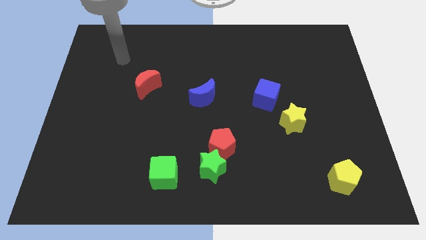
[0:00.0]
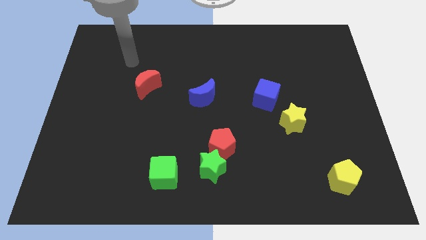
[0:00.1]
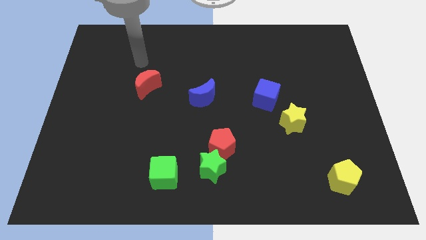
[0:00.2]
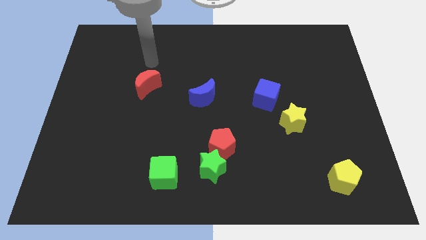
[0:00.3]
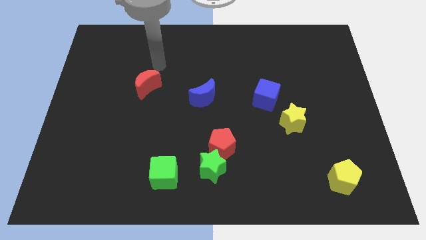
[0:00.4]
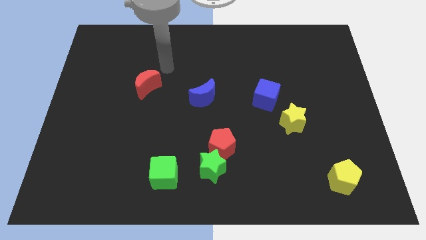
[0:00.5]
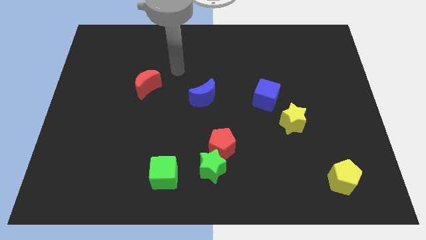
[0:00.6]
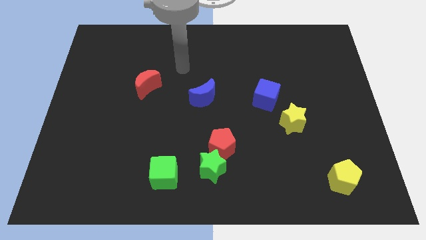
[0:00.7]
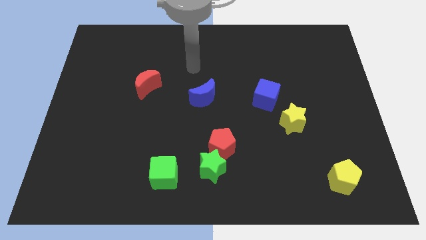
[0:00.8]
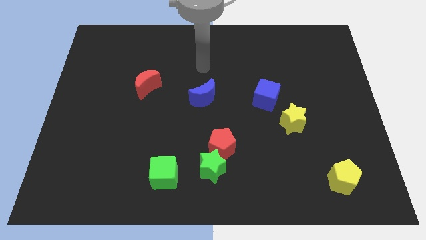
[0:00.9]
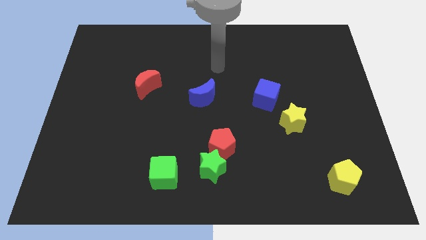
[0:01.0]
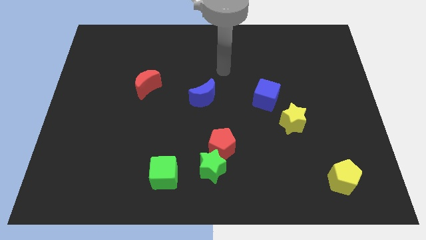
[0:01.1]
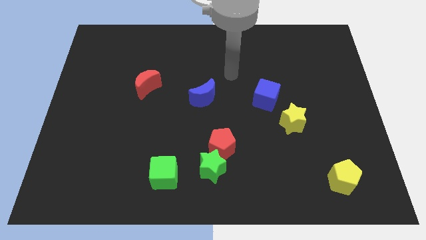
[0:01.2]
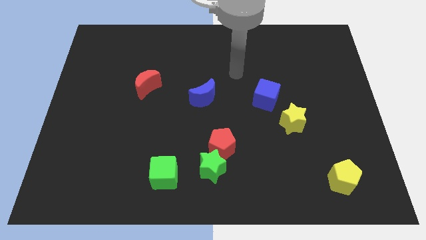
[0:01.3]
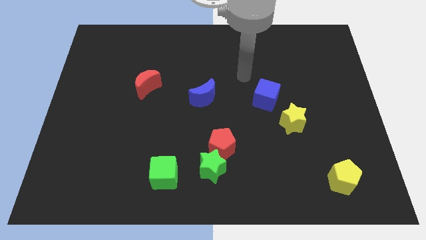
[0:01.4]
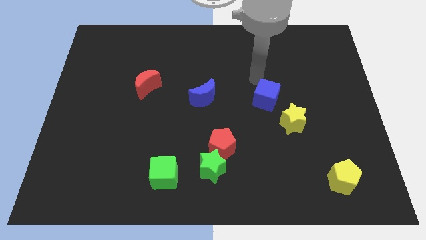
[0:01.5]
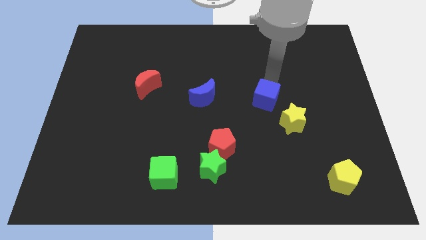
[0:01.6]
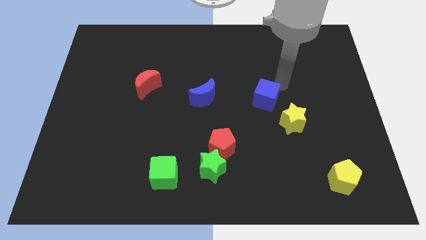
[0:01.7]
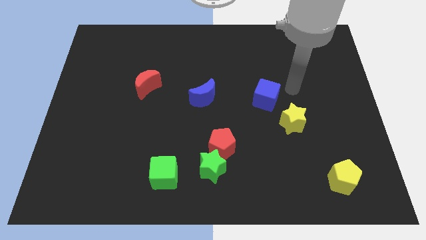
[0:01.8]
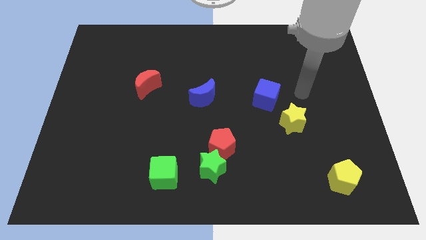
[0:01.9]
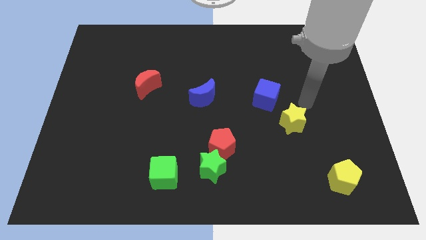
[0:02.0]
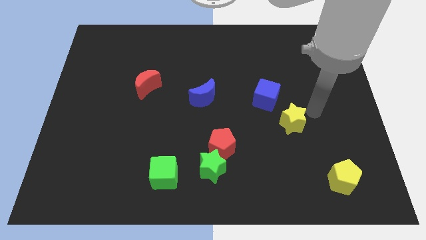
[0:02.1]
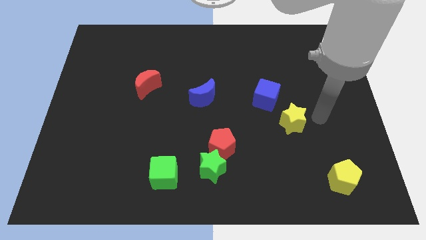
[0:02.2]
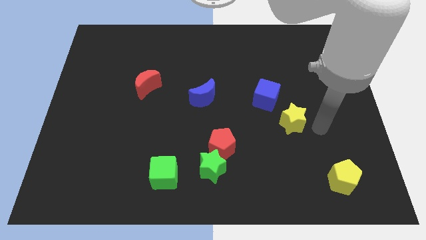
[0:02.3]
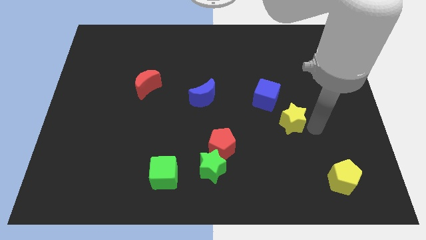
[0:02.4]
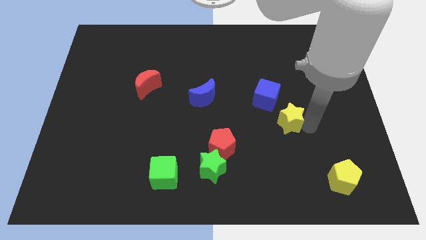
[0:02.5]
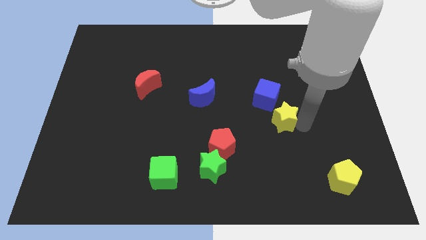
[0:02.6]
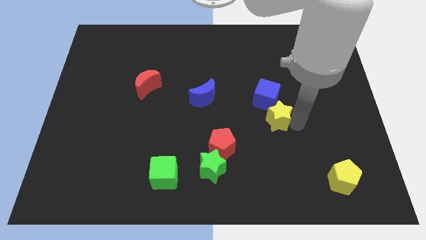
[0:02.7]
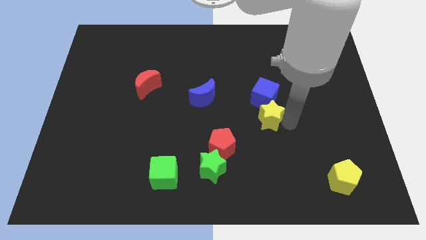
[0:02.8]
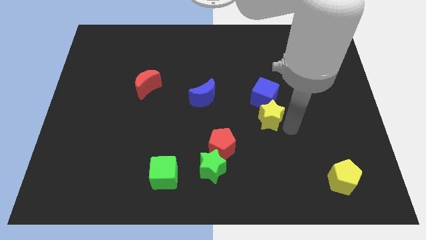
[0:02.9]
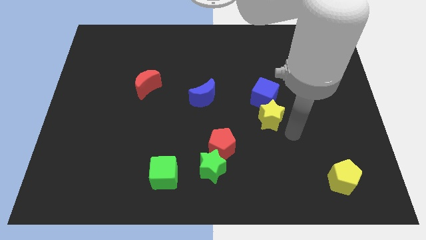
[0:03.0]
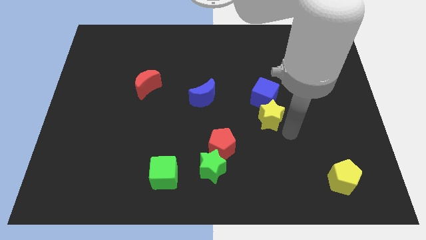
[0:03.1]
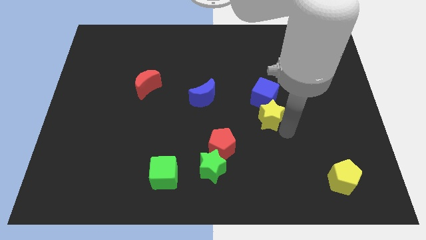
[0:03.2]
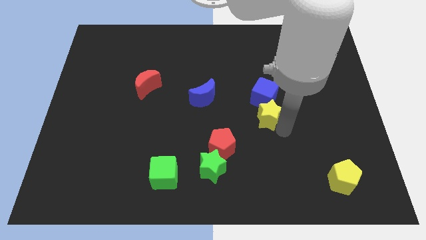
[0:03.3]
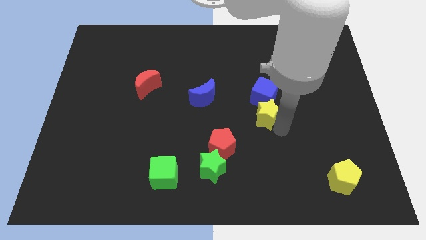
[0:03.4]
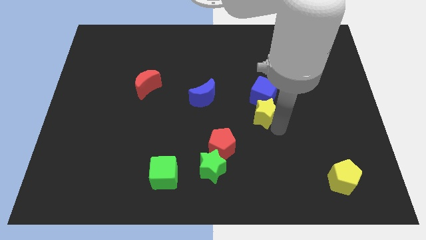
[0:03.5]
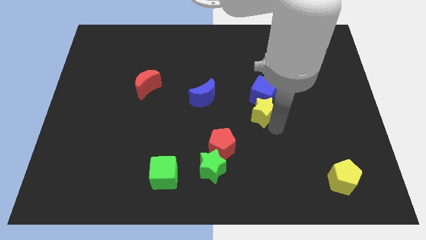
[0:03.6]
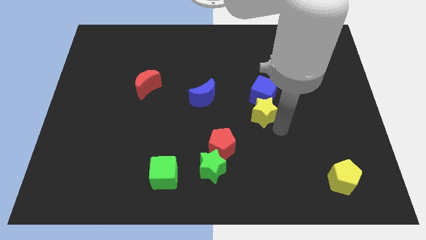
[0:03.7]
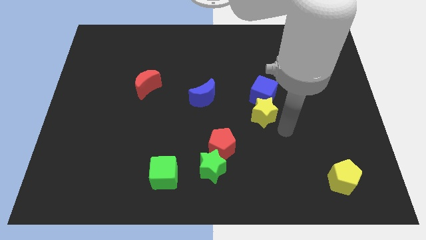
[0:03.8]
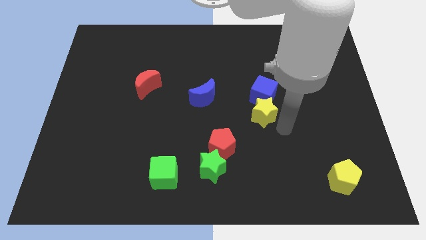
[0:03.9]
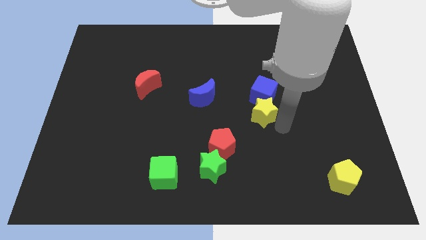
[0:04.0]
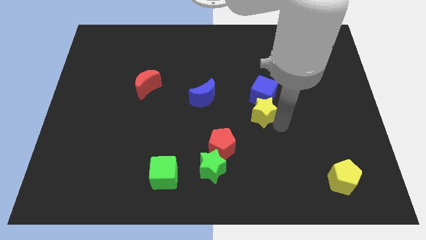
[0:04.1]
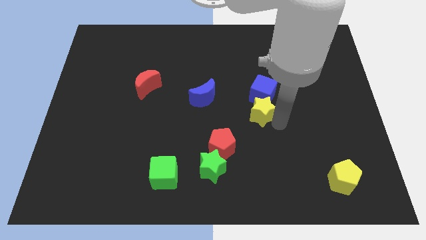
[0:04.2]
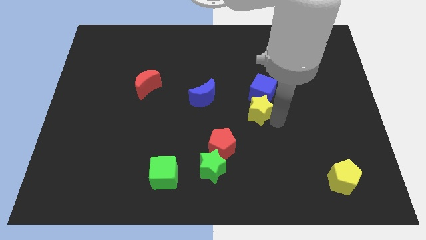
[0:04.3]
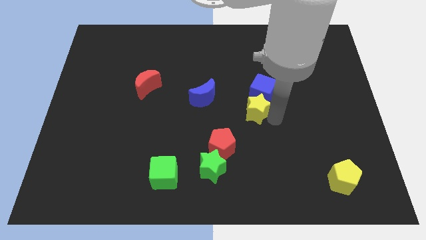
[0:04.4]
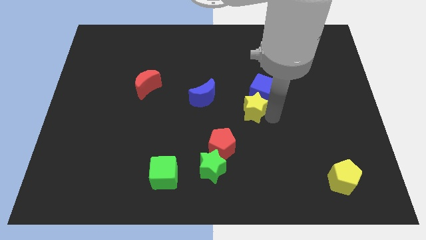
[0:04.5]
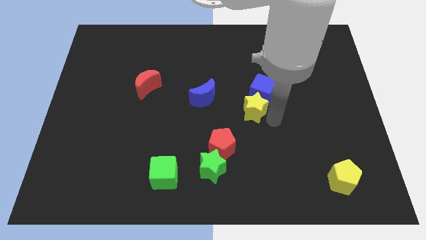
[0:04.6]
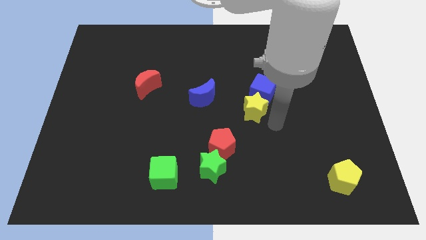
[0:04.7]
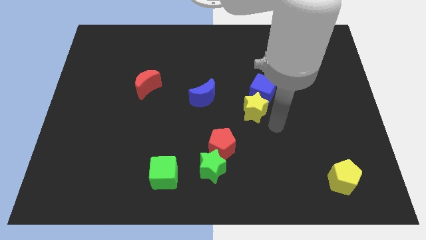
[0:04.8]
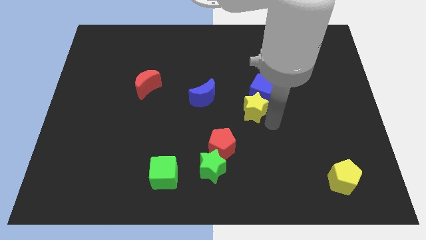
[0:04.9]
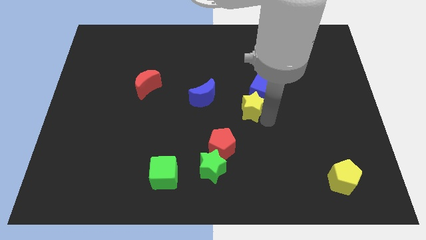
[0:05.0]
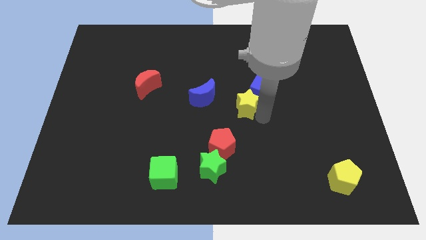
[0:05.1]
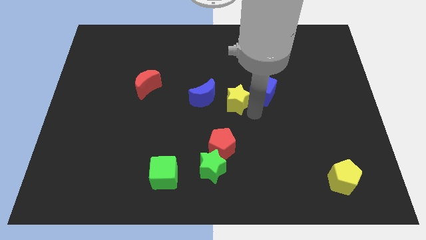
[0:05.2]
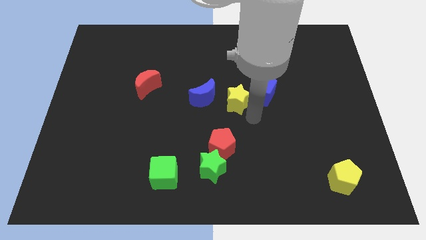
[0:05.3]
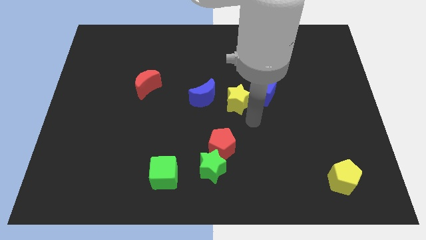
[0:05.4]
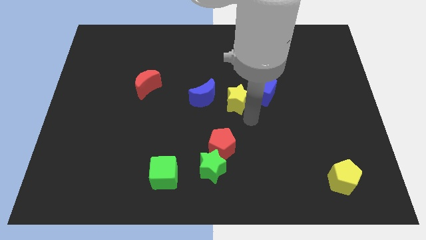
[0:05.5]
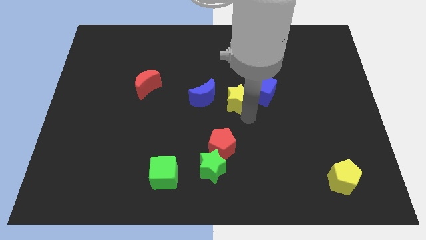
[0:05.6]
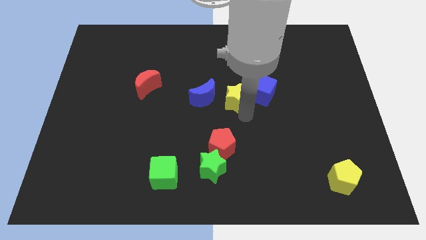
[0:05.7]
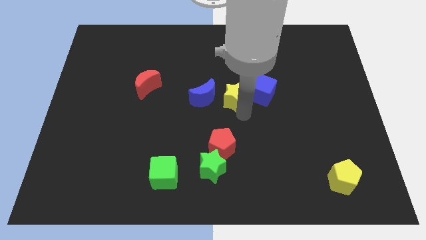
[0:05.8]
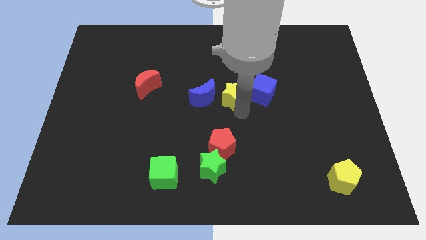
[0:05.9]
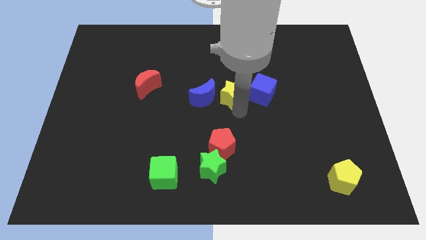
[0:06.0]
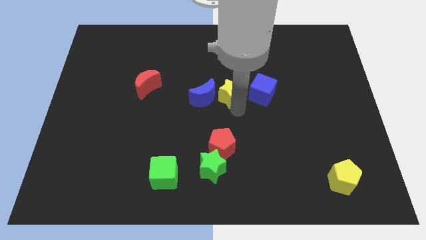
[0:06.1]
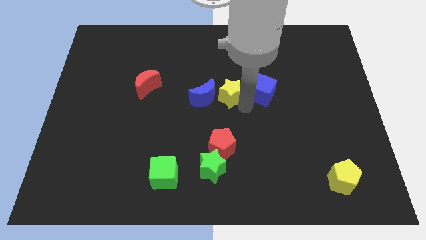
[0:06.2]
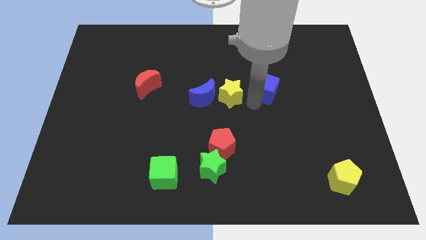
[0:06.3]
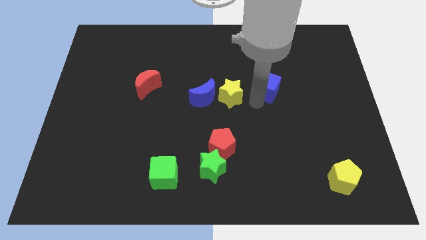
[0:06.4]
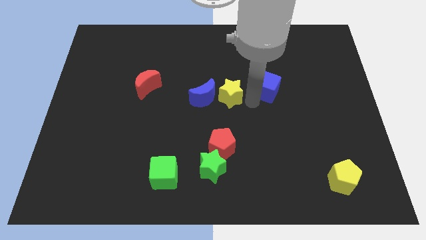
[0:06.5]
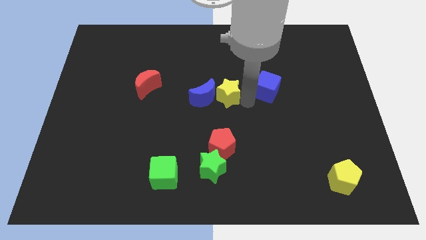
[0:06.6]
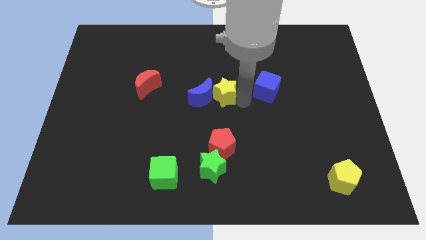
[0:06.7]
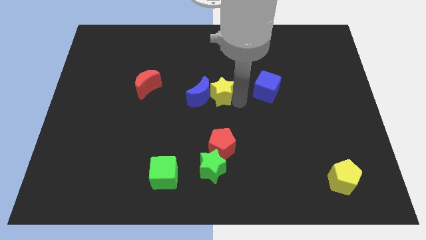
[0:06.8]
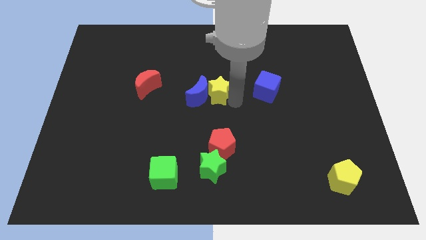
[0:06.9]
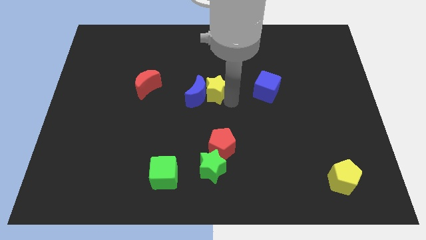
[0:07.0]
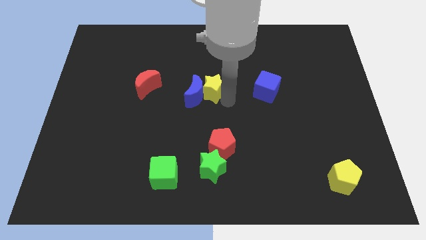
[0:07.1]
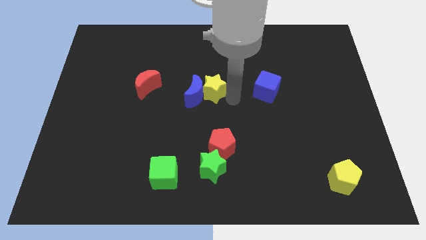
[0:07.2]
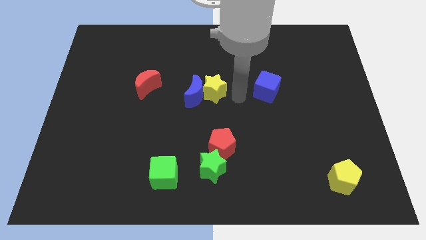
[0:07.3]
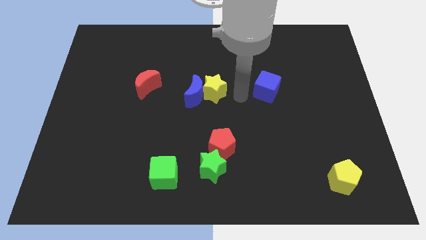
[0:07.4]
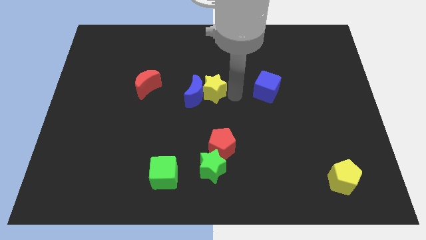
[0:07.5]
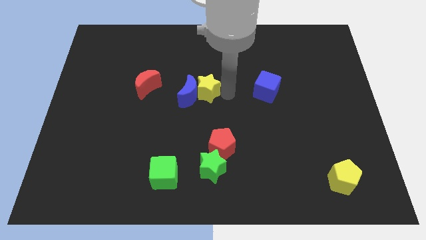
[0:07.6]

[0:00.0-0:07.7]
push the yellow star just right of the red moon

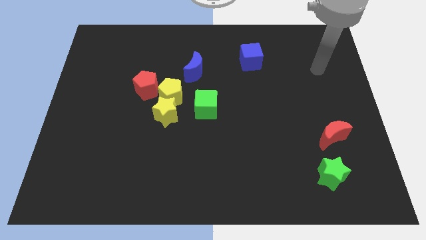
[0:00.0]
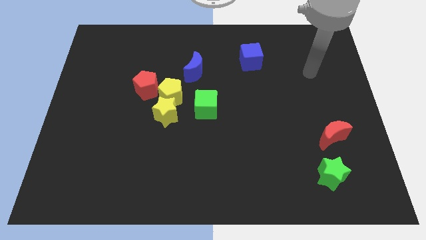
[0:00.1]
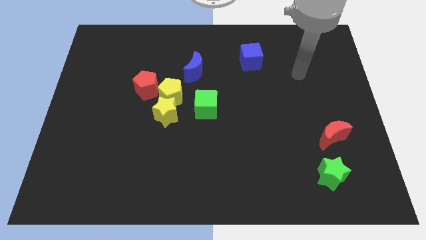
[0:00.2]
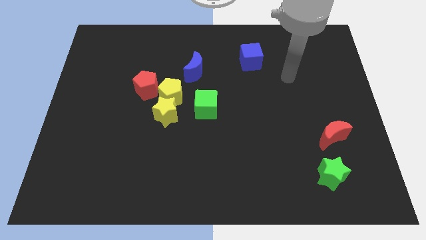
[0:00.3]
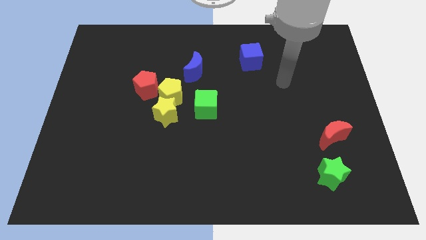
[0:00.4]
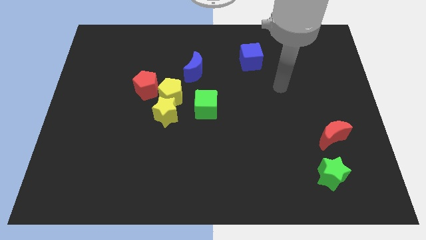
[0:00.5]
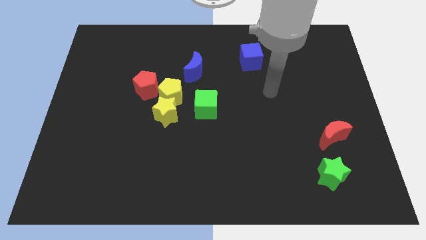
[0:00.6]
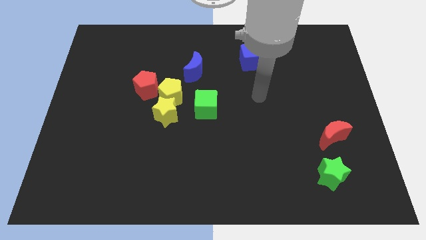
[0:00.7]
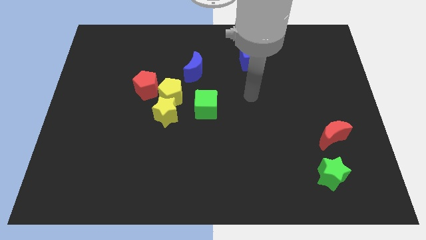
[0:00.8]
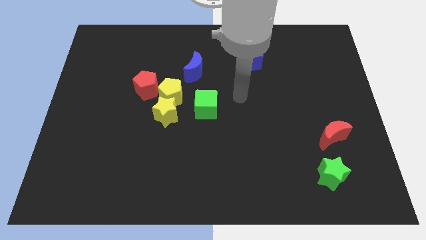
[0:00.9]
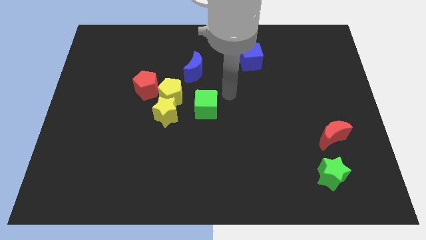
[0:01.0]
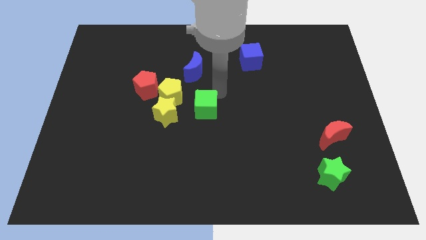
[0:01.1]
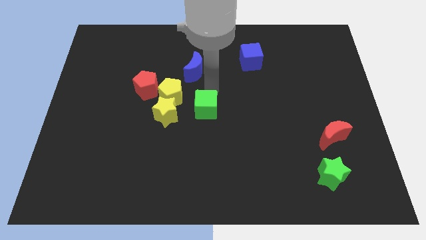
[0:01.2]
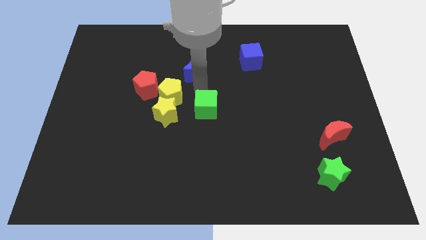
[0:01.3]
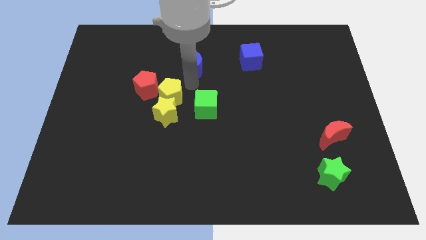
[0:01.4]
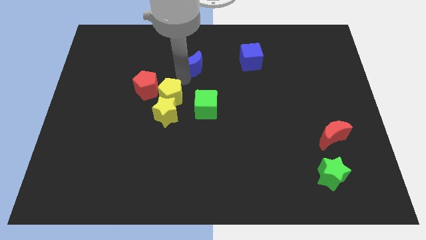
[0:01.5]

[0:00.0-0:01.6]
slide the yellow pentagon to the bottom side of the blue moon
